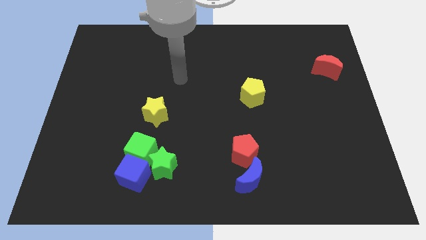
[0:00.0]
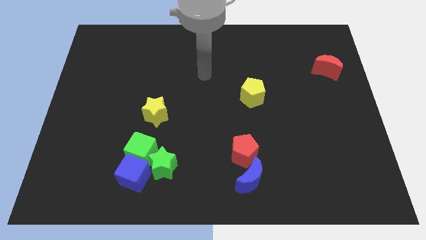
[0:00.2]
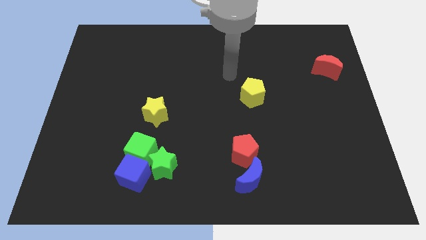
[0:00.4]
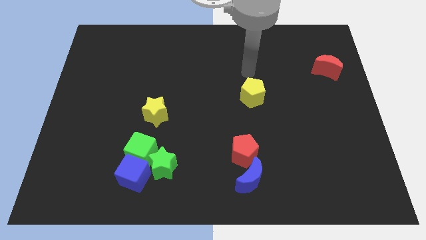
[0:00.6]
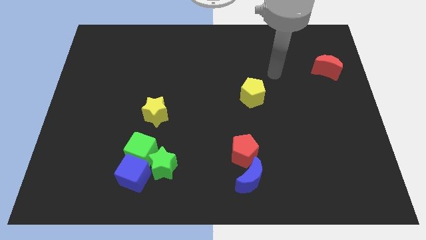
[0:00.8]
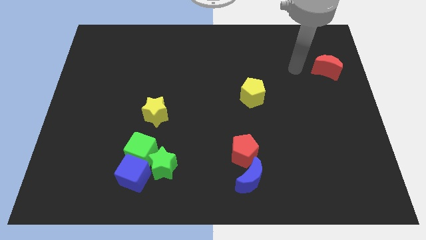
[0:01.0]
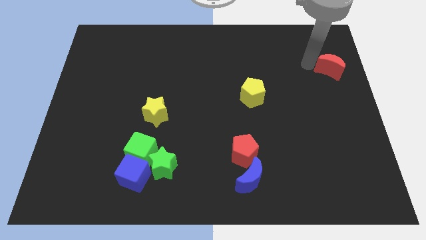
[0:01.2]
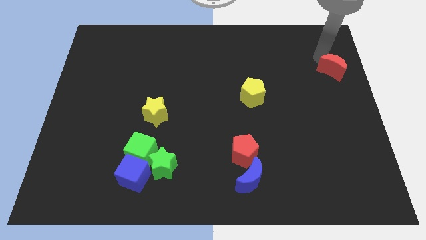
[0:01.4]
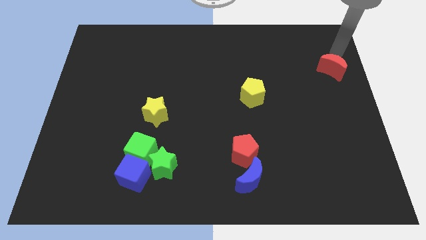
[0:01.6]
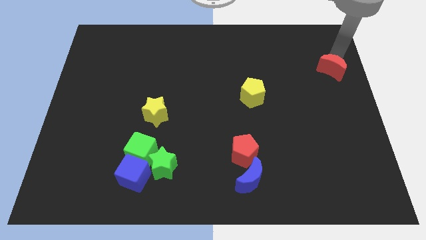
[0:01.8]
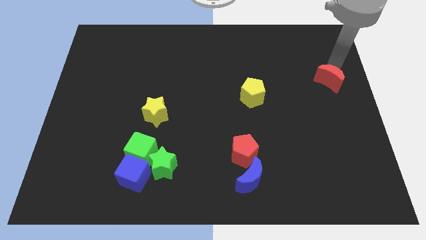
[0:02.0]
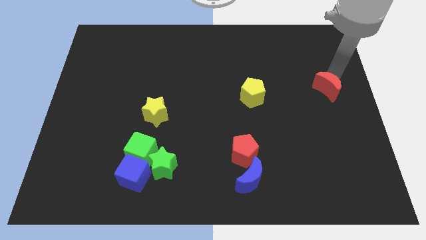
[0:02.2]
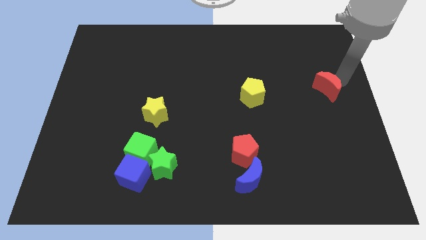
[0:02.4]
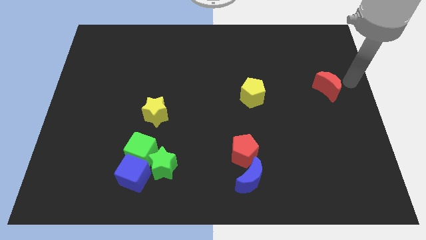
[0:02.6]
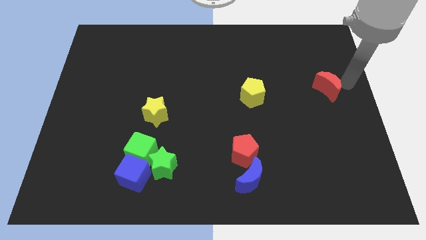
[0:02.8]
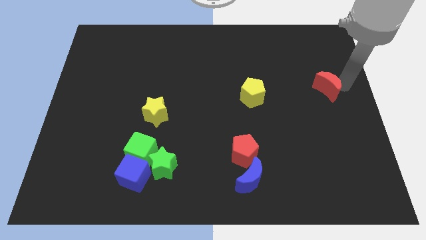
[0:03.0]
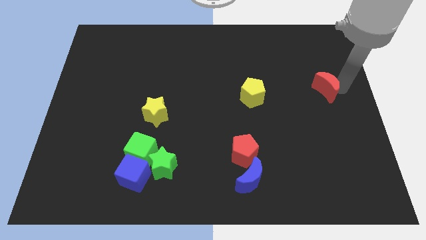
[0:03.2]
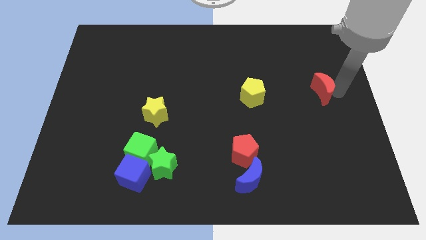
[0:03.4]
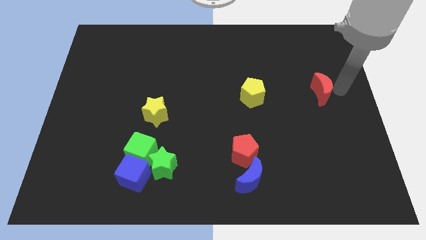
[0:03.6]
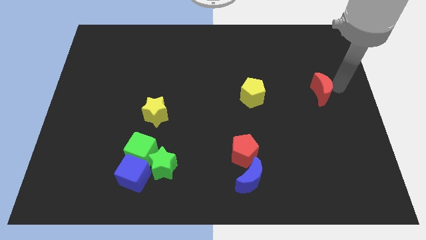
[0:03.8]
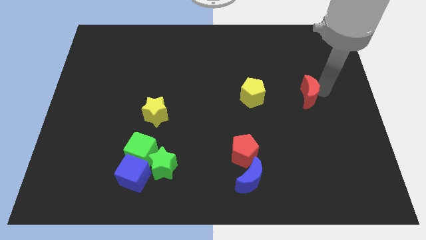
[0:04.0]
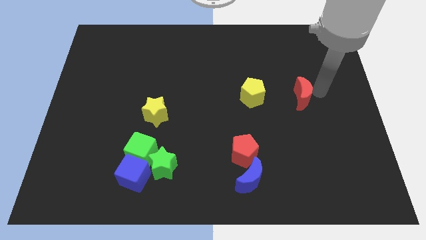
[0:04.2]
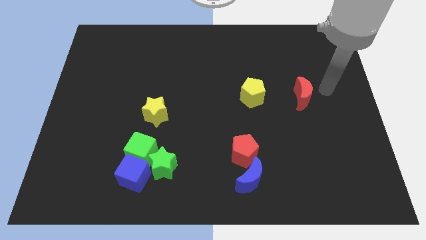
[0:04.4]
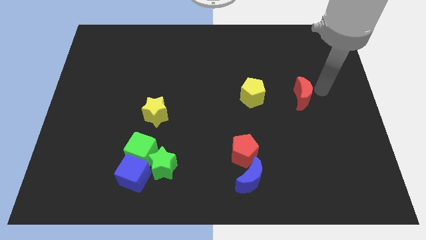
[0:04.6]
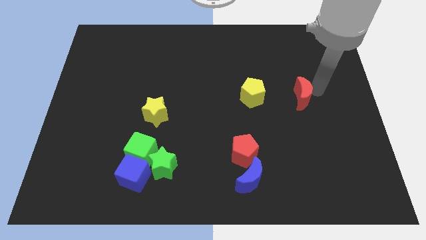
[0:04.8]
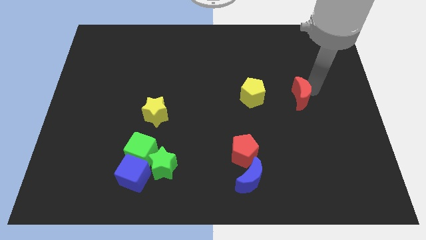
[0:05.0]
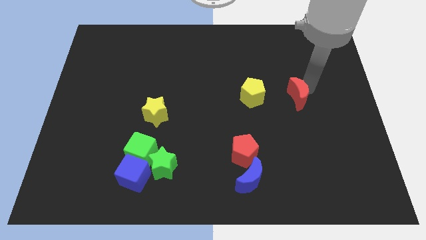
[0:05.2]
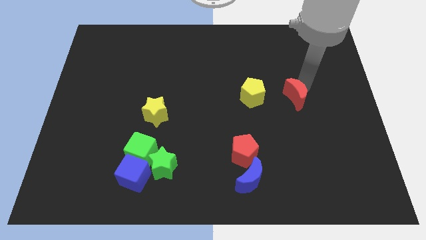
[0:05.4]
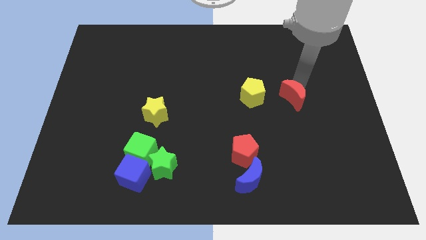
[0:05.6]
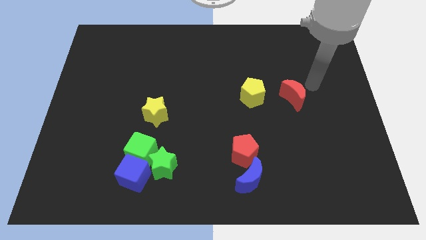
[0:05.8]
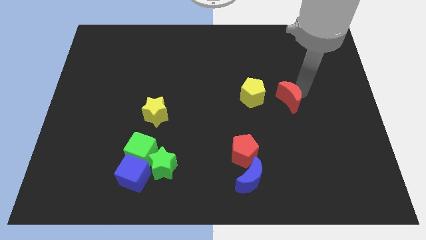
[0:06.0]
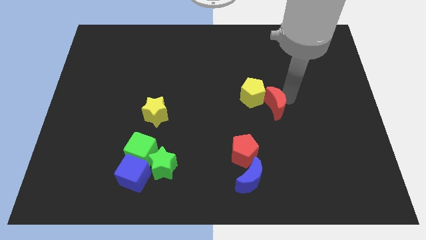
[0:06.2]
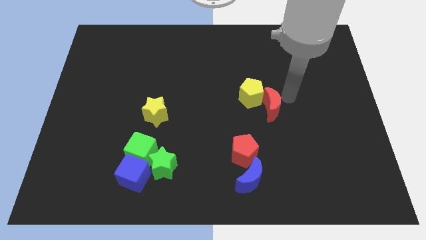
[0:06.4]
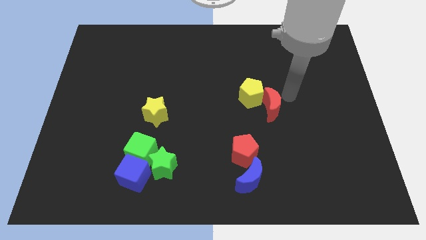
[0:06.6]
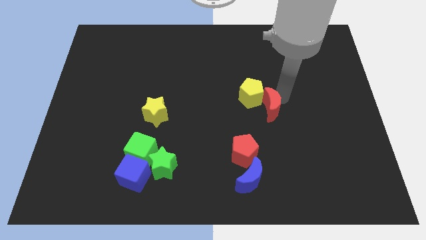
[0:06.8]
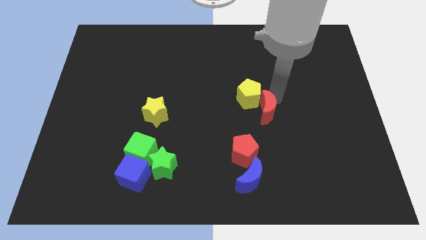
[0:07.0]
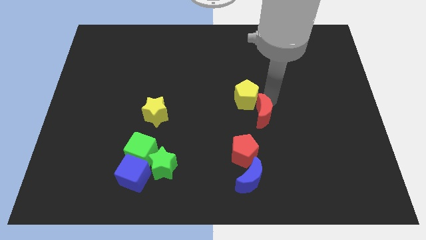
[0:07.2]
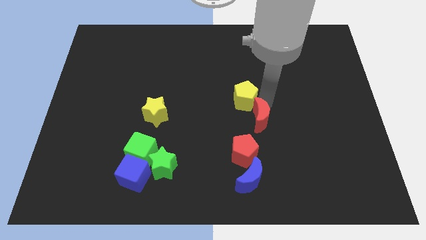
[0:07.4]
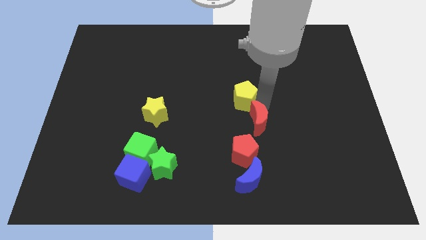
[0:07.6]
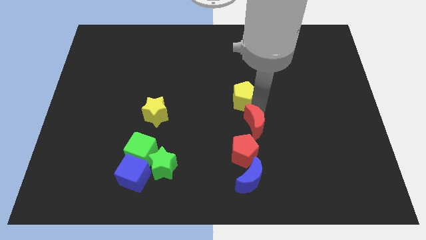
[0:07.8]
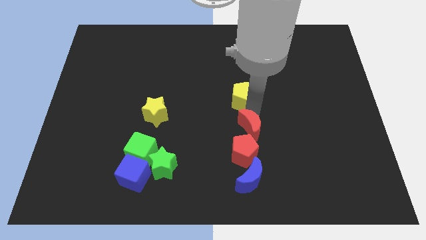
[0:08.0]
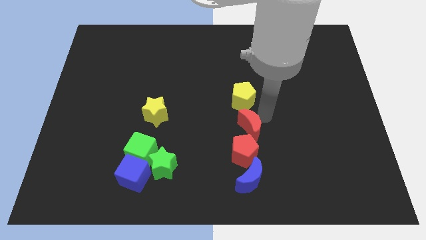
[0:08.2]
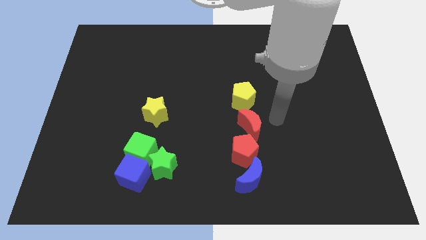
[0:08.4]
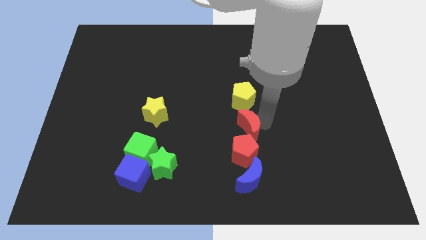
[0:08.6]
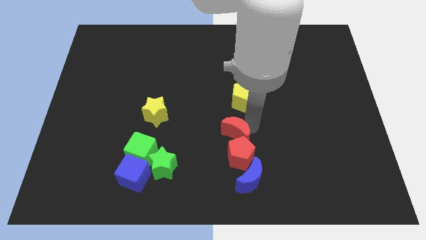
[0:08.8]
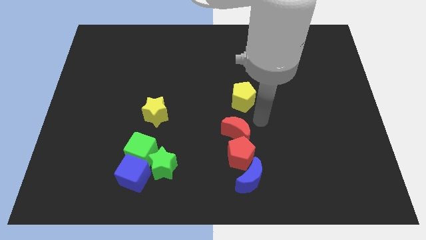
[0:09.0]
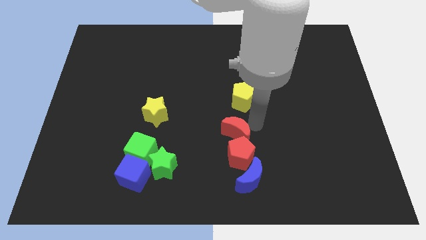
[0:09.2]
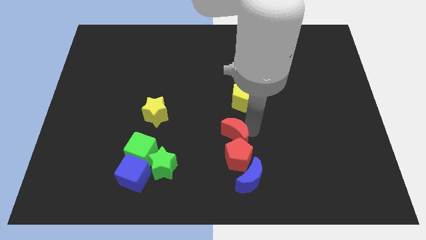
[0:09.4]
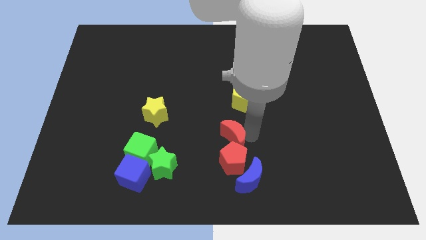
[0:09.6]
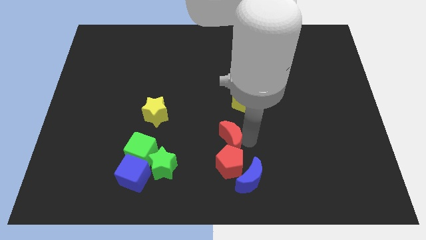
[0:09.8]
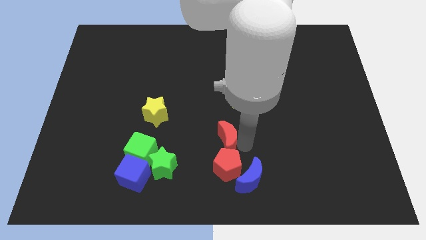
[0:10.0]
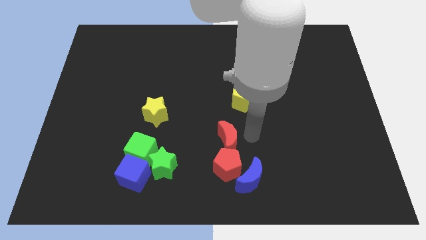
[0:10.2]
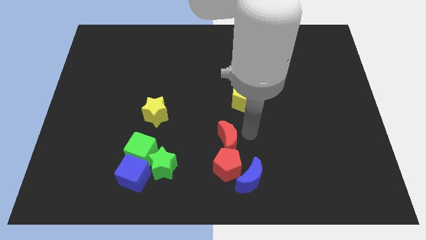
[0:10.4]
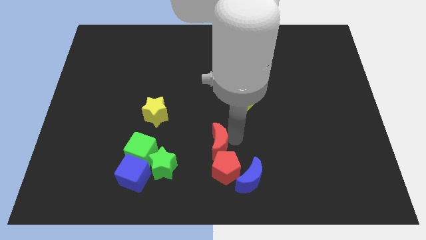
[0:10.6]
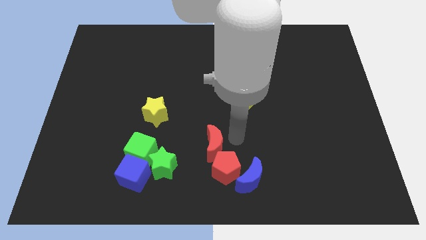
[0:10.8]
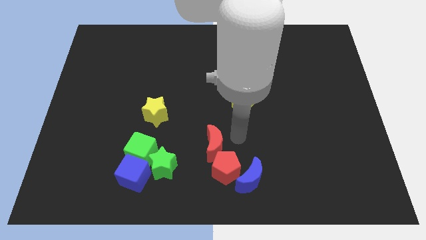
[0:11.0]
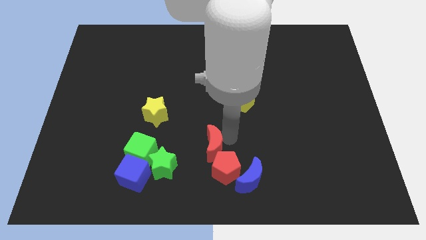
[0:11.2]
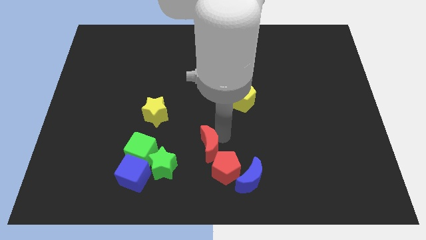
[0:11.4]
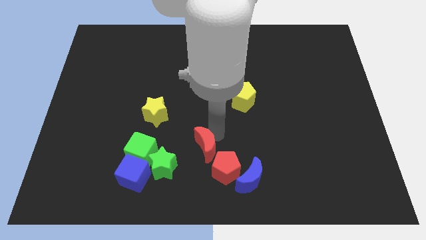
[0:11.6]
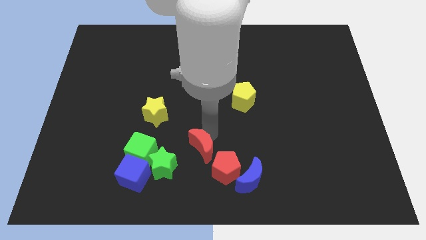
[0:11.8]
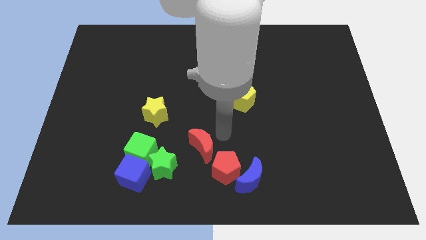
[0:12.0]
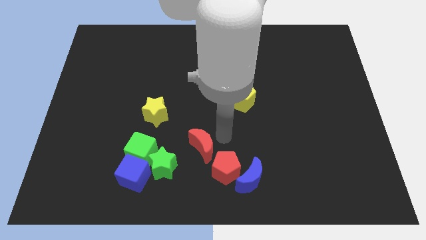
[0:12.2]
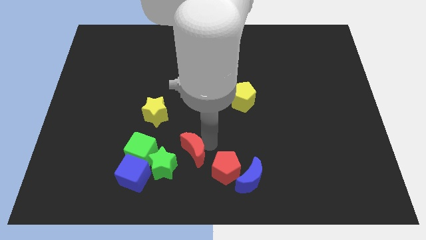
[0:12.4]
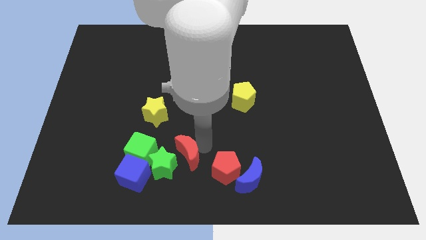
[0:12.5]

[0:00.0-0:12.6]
move the red moon next to the green star
